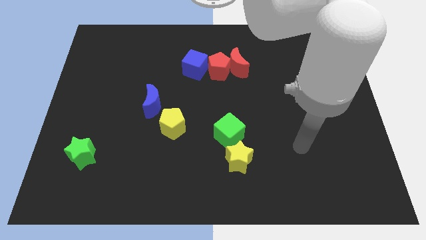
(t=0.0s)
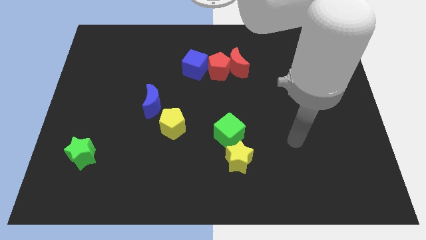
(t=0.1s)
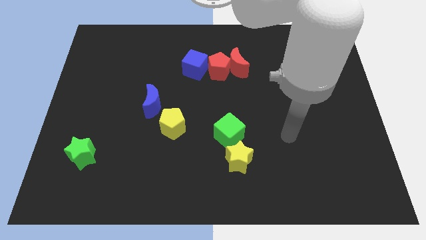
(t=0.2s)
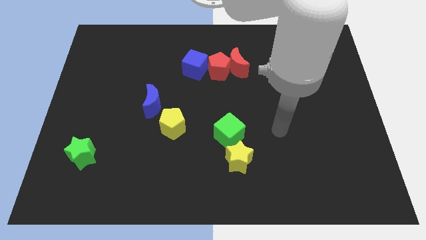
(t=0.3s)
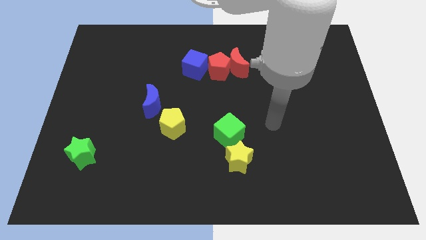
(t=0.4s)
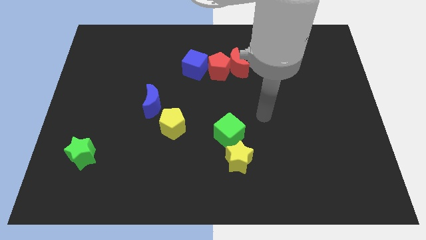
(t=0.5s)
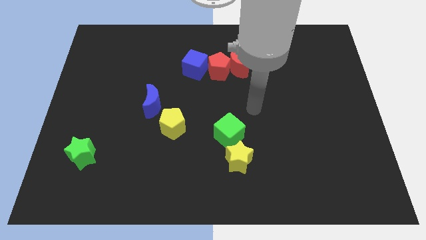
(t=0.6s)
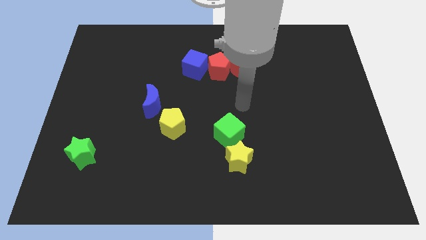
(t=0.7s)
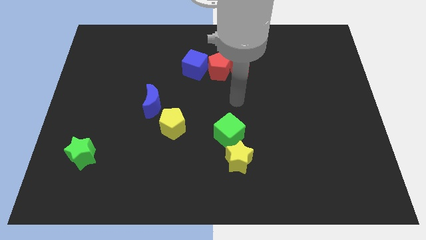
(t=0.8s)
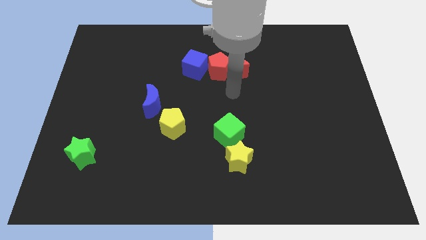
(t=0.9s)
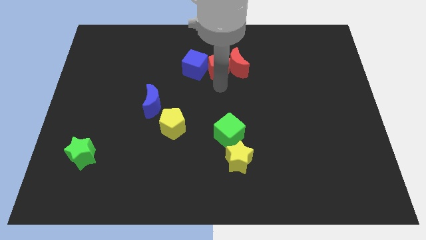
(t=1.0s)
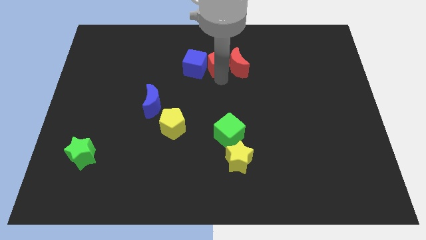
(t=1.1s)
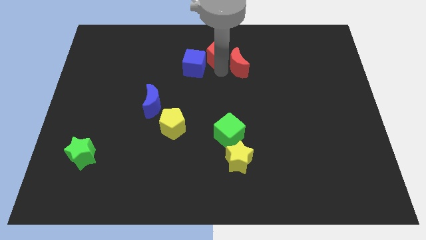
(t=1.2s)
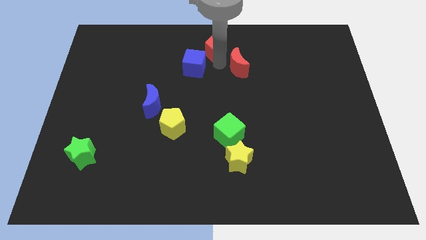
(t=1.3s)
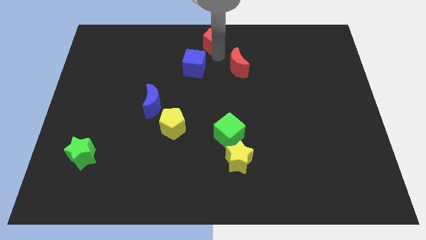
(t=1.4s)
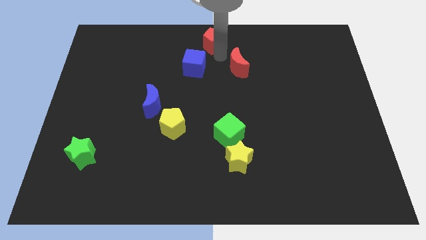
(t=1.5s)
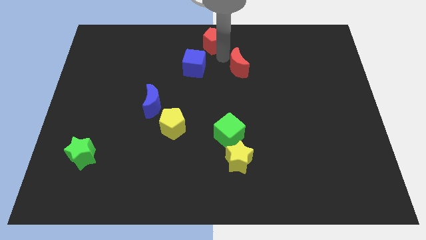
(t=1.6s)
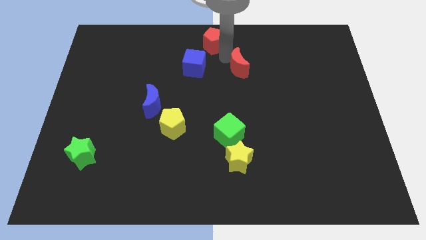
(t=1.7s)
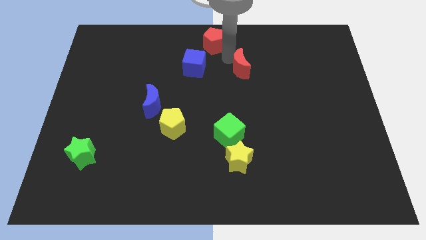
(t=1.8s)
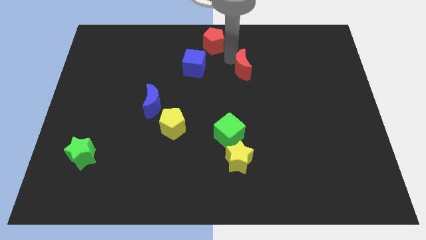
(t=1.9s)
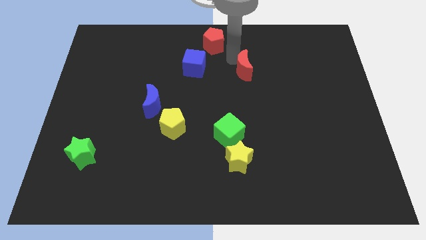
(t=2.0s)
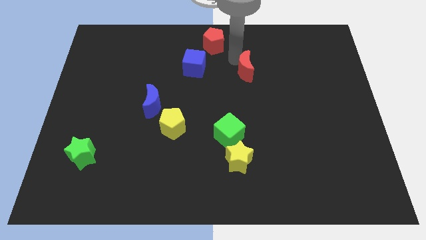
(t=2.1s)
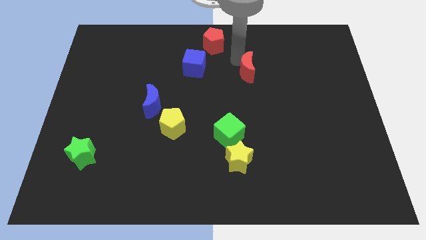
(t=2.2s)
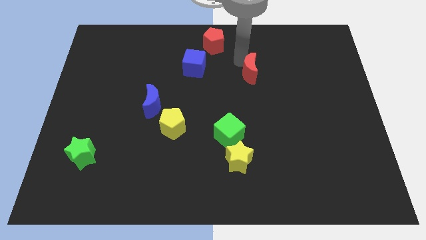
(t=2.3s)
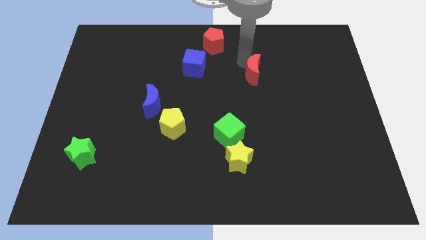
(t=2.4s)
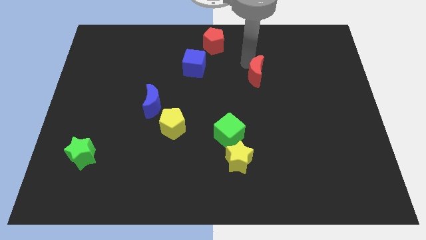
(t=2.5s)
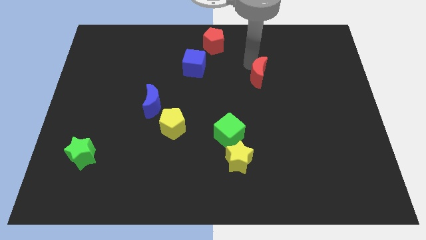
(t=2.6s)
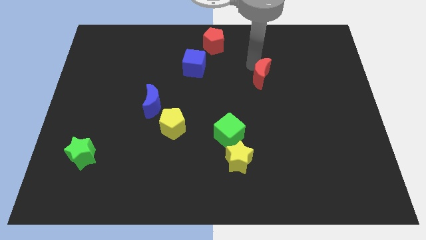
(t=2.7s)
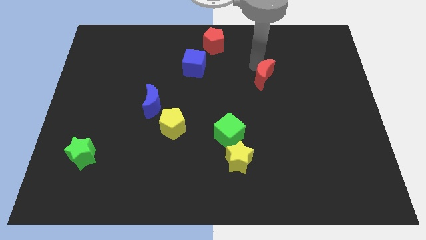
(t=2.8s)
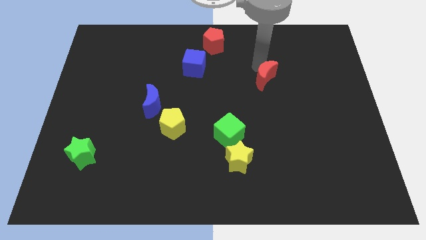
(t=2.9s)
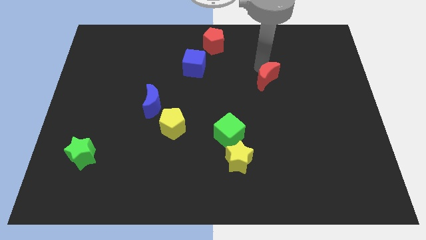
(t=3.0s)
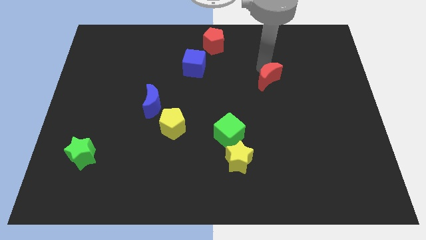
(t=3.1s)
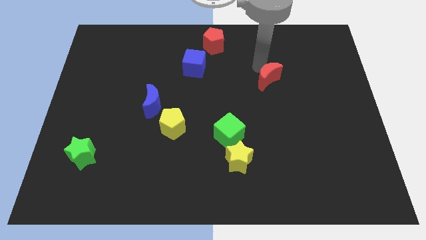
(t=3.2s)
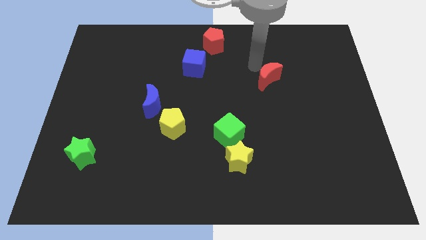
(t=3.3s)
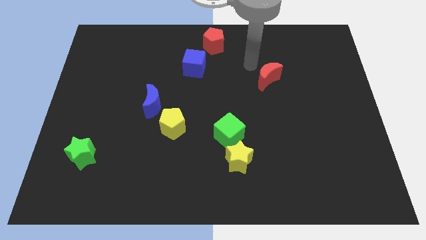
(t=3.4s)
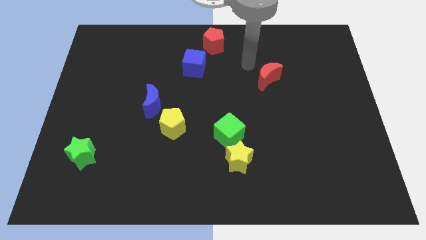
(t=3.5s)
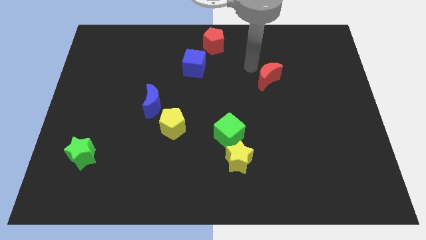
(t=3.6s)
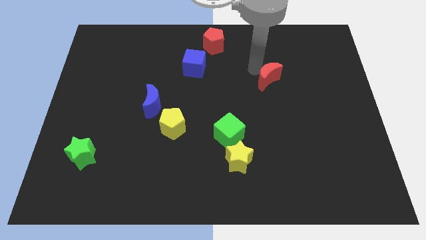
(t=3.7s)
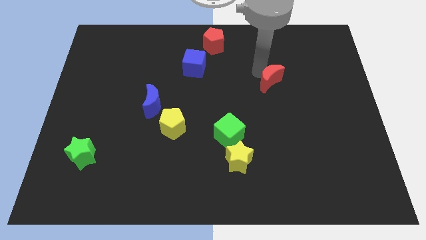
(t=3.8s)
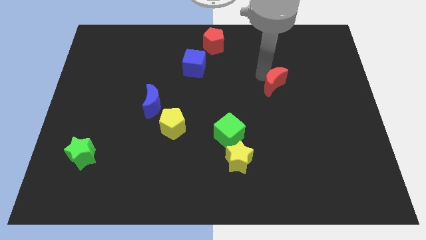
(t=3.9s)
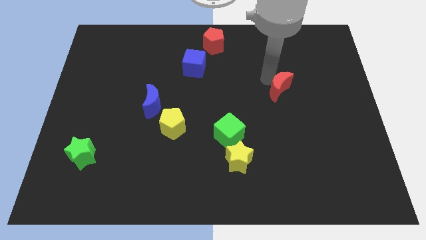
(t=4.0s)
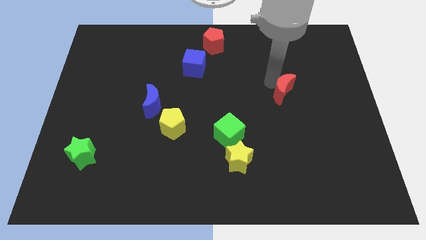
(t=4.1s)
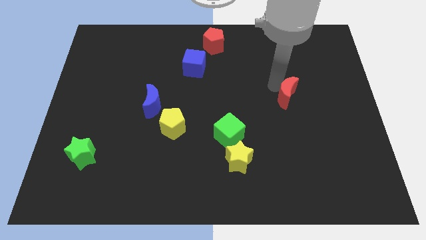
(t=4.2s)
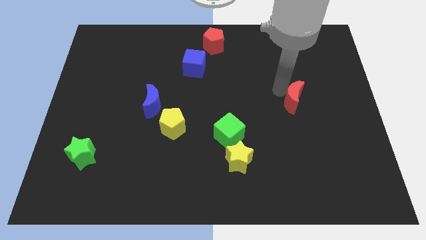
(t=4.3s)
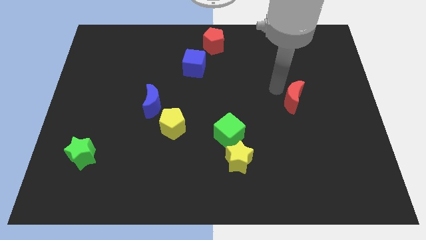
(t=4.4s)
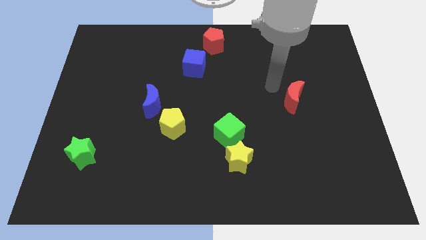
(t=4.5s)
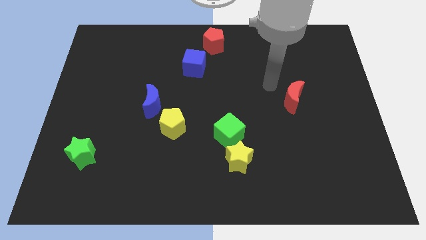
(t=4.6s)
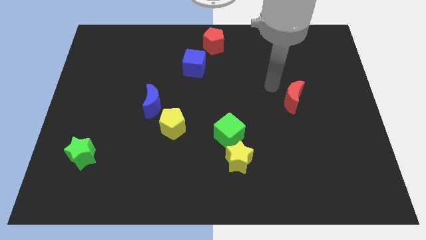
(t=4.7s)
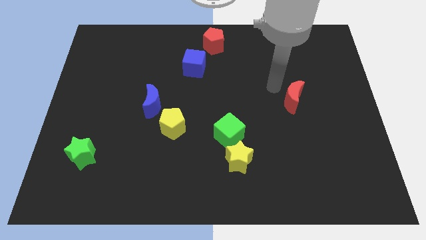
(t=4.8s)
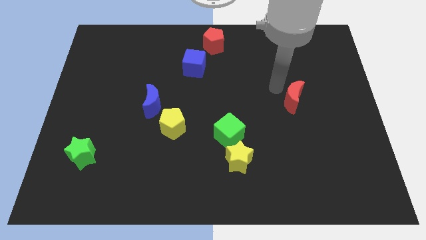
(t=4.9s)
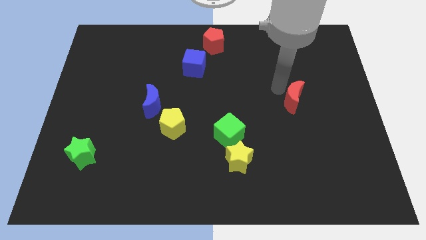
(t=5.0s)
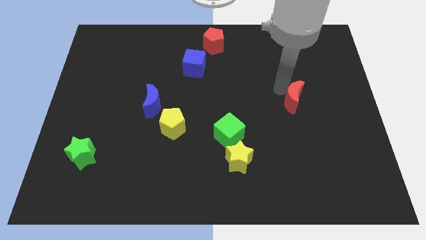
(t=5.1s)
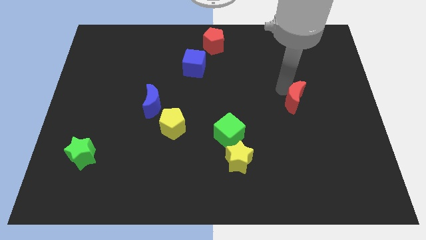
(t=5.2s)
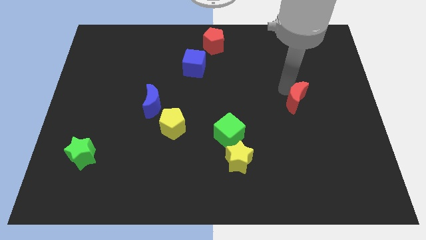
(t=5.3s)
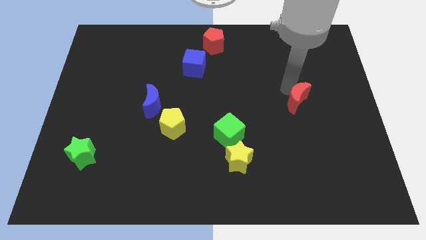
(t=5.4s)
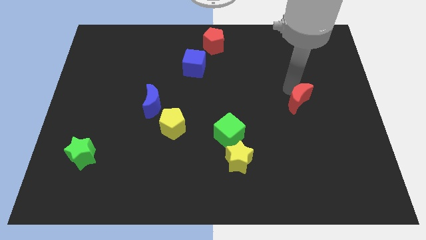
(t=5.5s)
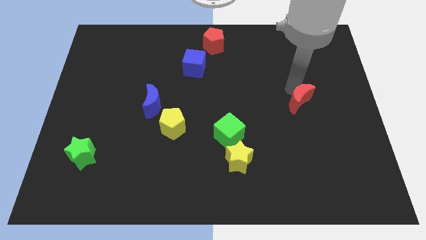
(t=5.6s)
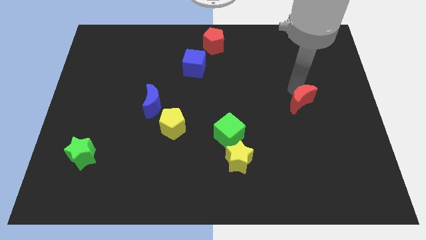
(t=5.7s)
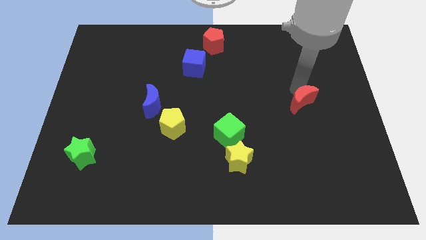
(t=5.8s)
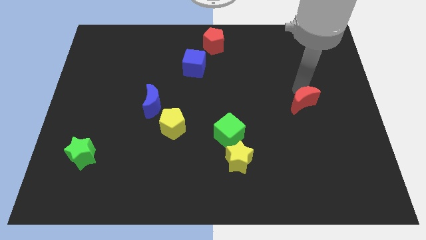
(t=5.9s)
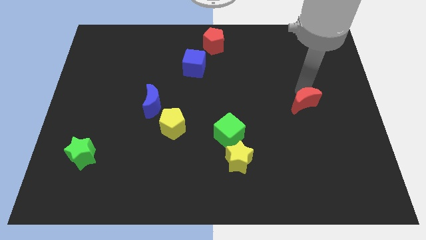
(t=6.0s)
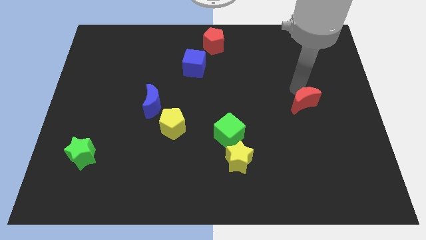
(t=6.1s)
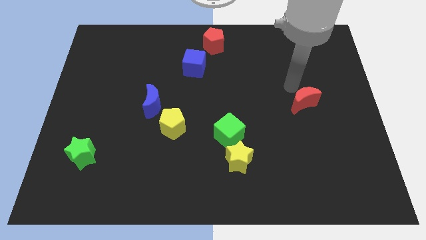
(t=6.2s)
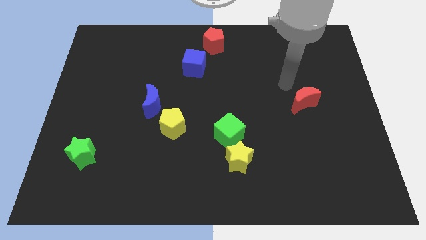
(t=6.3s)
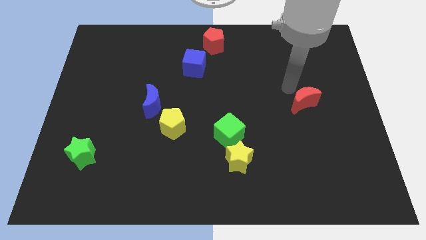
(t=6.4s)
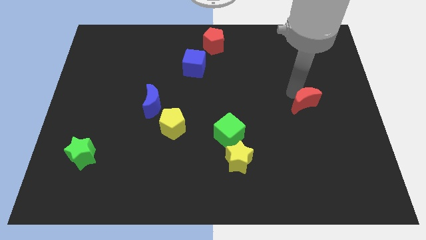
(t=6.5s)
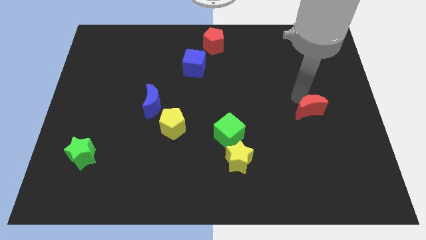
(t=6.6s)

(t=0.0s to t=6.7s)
push the red moon downwards and right

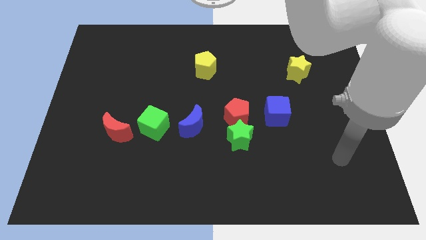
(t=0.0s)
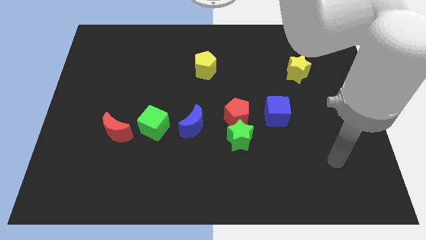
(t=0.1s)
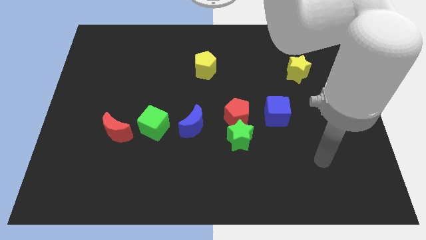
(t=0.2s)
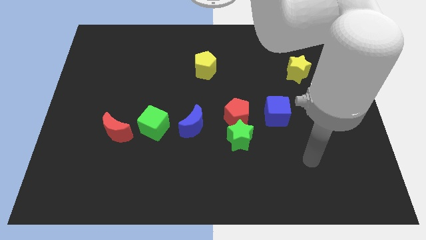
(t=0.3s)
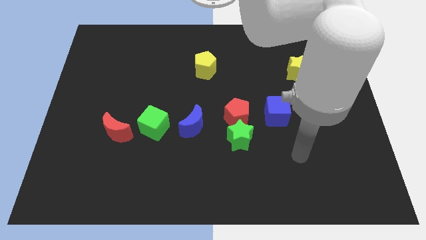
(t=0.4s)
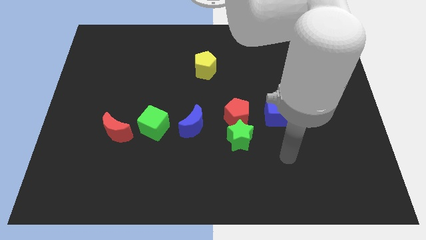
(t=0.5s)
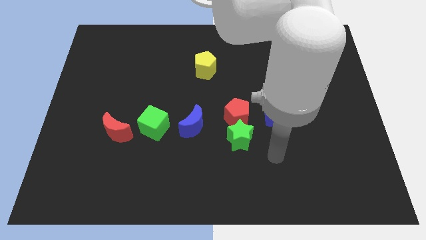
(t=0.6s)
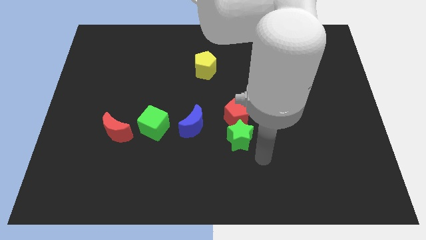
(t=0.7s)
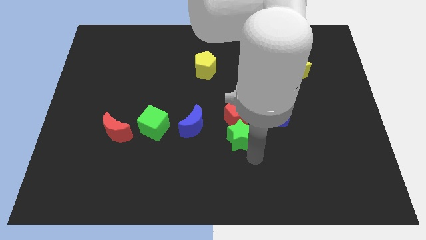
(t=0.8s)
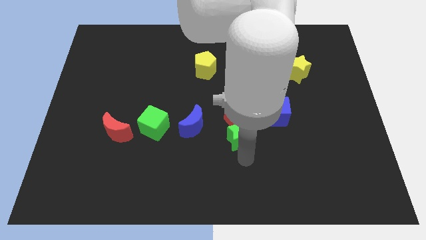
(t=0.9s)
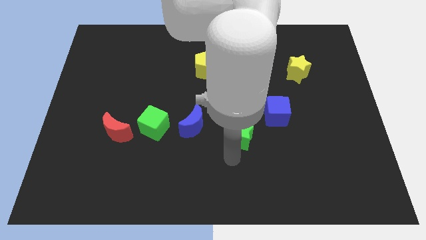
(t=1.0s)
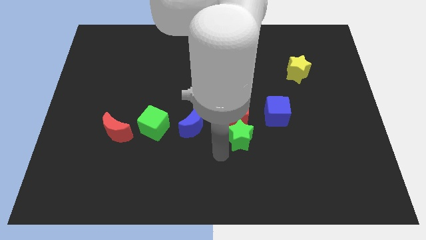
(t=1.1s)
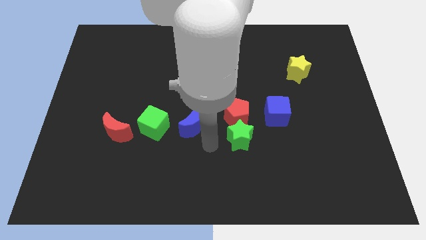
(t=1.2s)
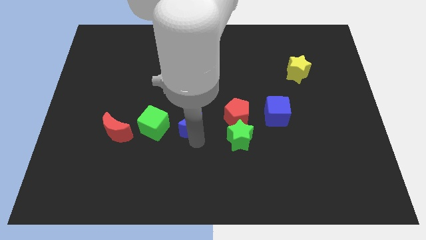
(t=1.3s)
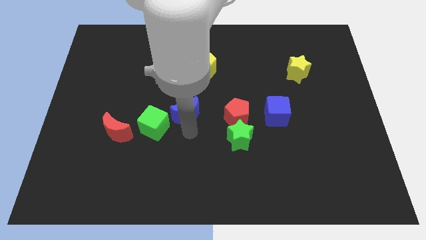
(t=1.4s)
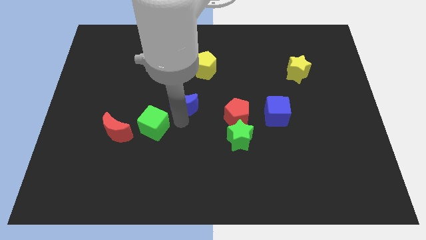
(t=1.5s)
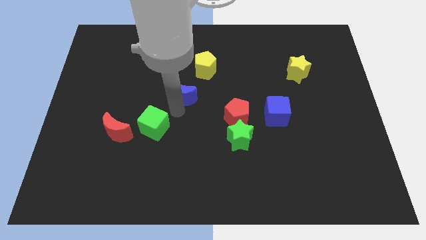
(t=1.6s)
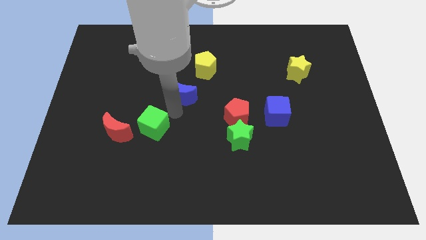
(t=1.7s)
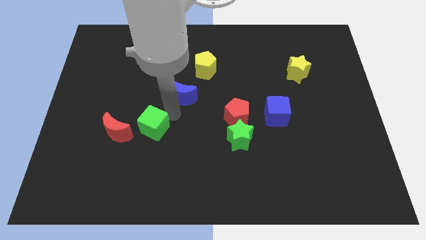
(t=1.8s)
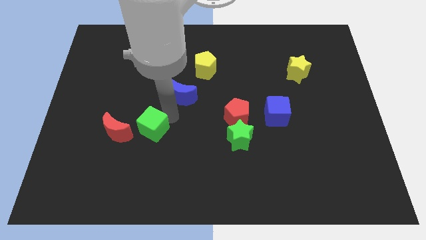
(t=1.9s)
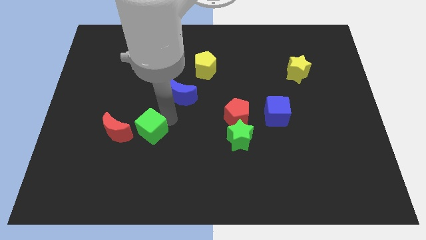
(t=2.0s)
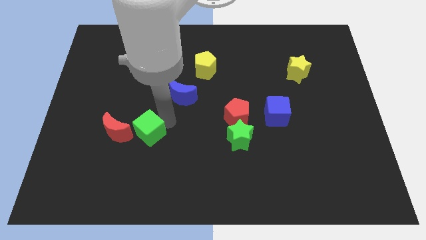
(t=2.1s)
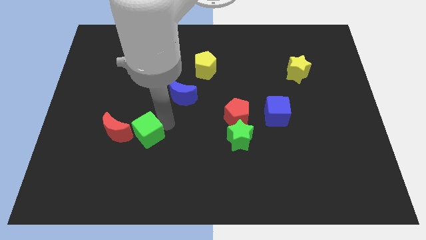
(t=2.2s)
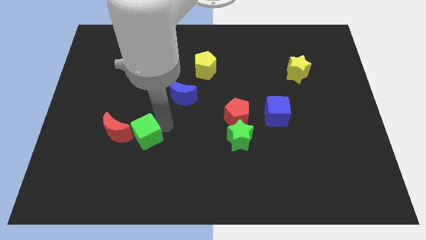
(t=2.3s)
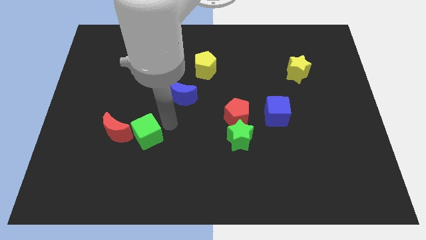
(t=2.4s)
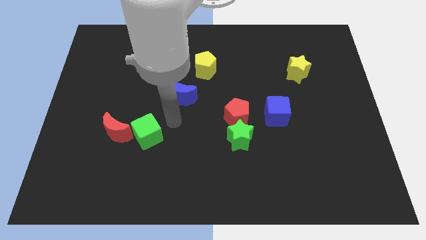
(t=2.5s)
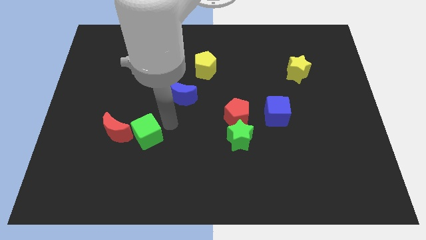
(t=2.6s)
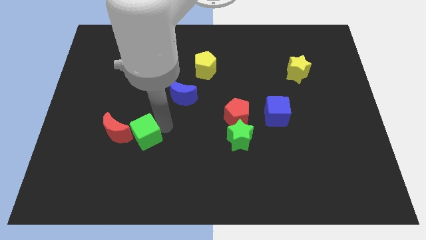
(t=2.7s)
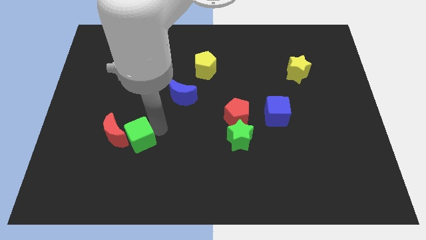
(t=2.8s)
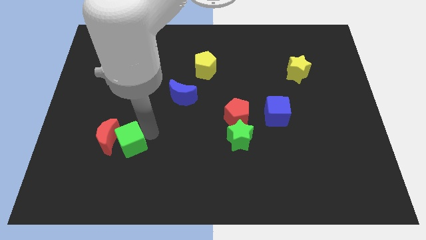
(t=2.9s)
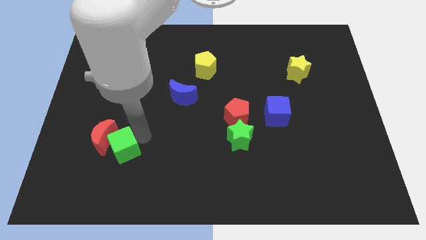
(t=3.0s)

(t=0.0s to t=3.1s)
slightly push the green cube downwards and to the left
